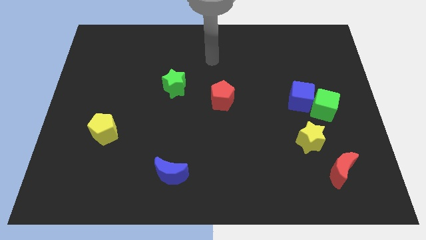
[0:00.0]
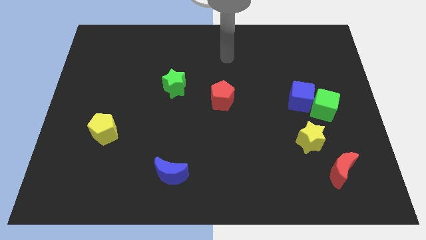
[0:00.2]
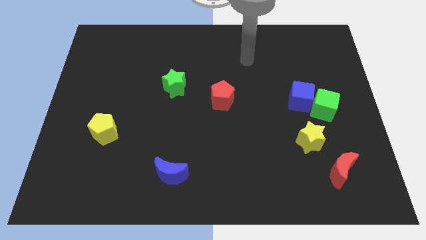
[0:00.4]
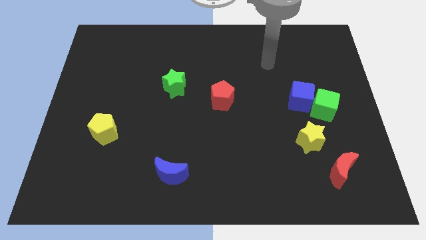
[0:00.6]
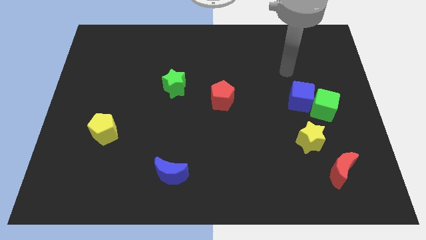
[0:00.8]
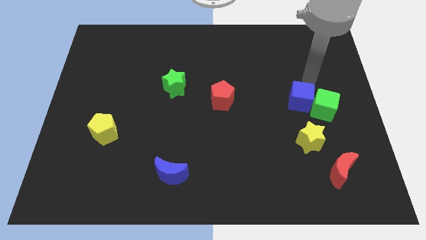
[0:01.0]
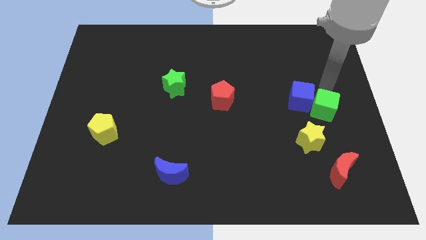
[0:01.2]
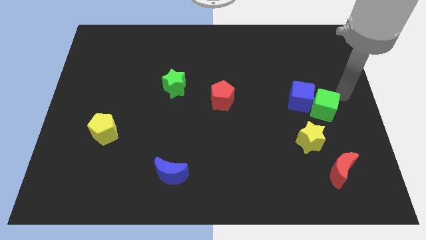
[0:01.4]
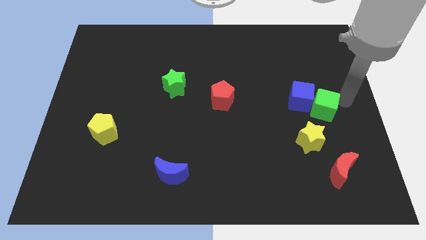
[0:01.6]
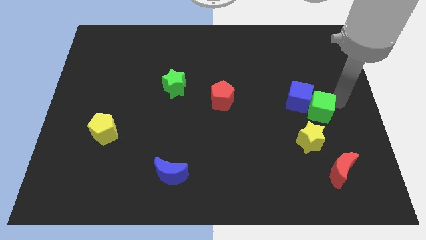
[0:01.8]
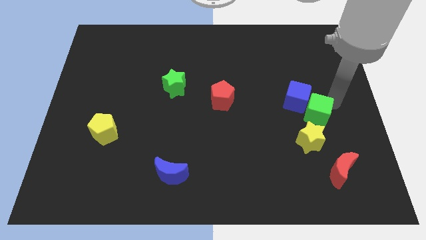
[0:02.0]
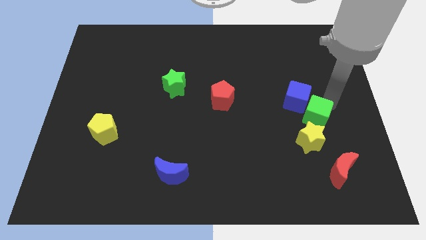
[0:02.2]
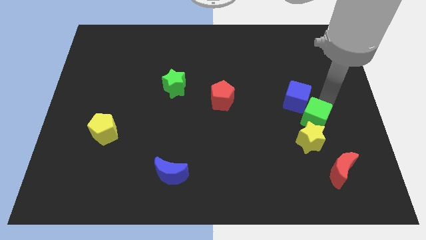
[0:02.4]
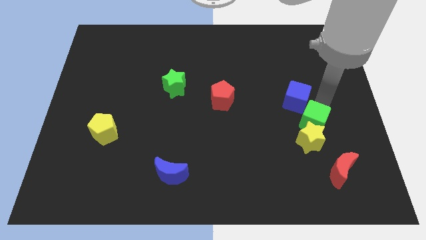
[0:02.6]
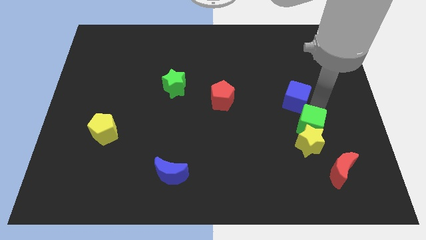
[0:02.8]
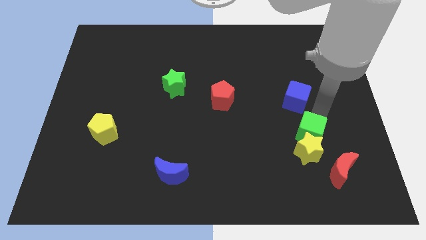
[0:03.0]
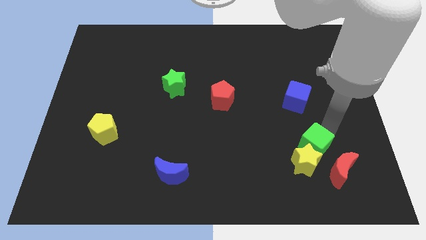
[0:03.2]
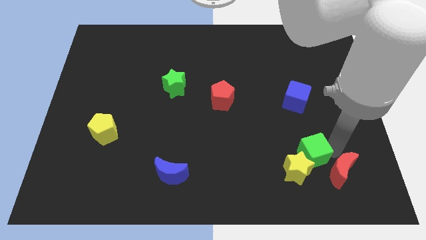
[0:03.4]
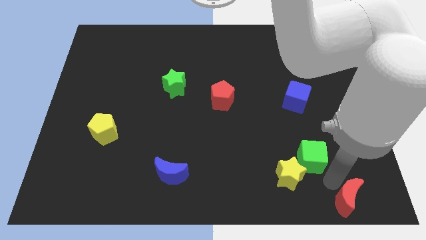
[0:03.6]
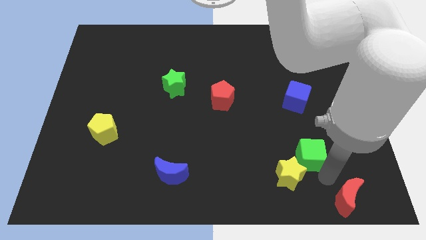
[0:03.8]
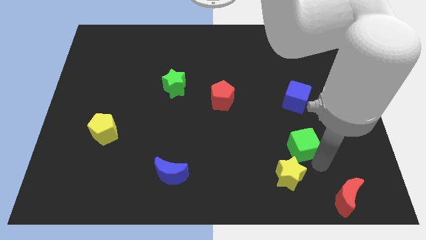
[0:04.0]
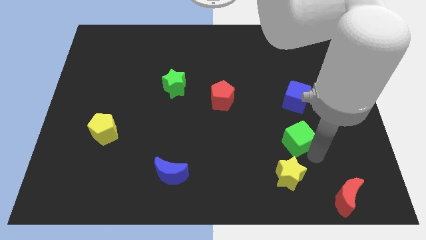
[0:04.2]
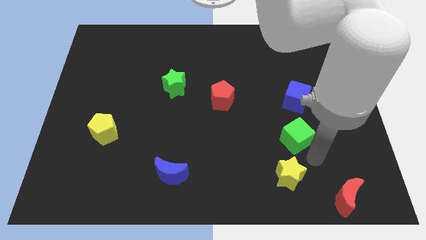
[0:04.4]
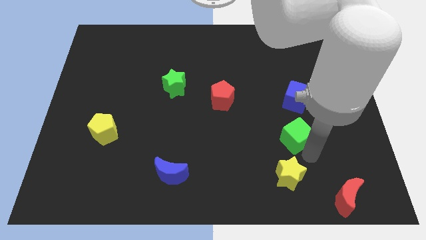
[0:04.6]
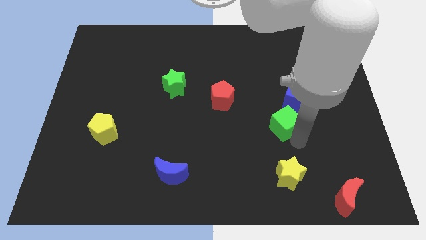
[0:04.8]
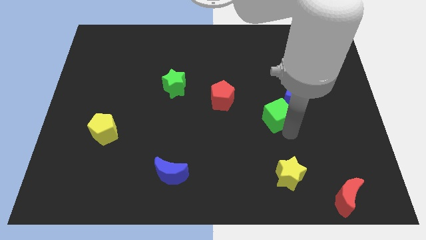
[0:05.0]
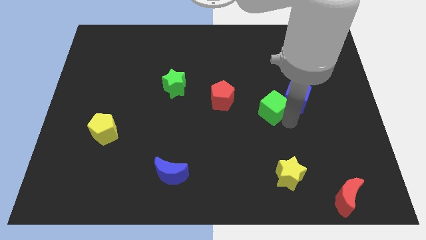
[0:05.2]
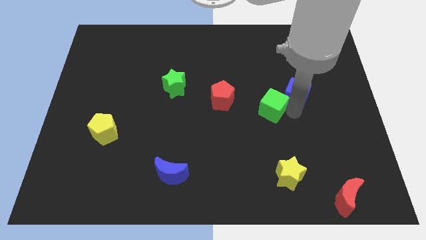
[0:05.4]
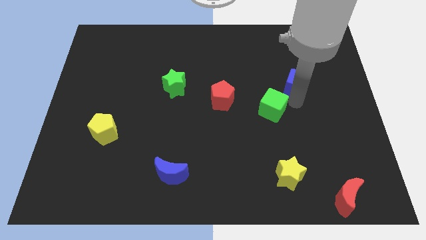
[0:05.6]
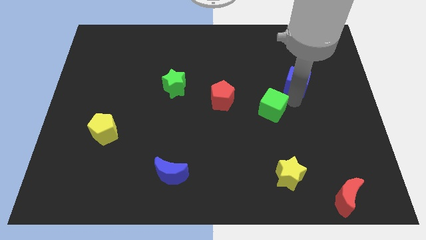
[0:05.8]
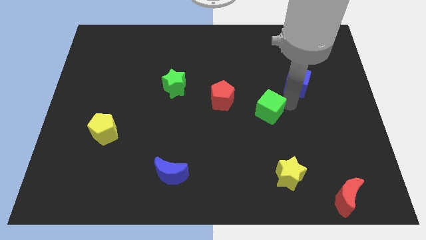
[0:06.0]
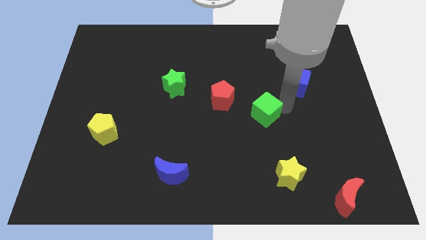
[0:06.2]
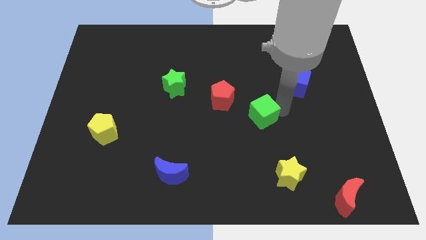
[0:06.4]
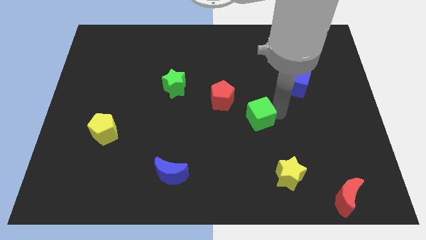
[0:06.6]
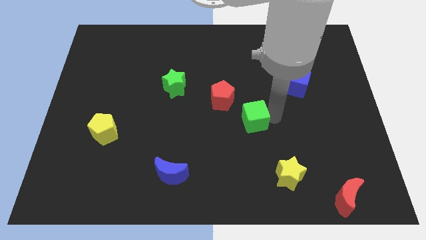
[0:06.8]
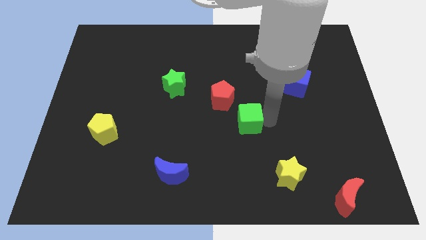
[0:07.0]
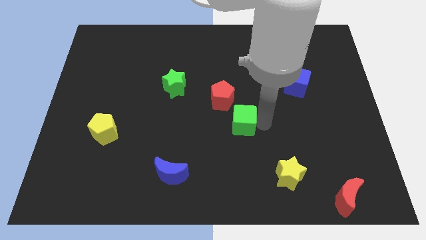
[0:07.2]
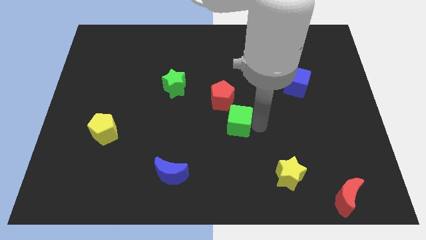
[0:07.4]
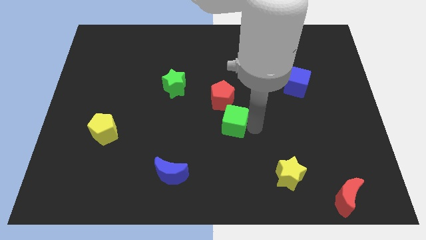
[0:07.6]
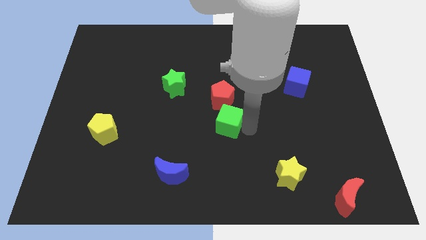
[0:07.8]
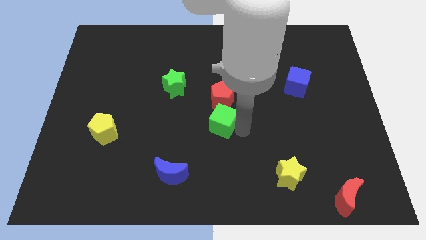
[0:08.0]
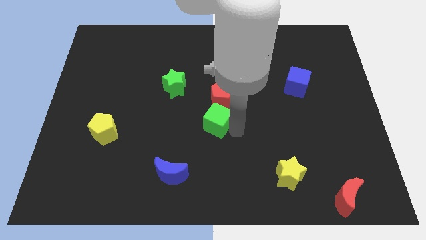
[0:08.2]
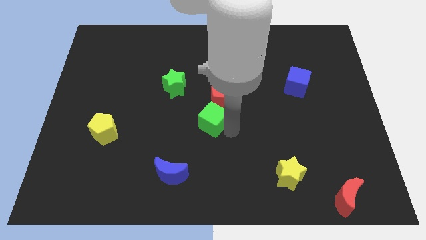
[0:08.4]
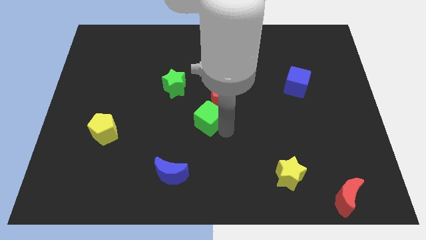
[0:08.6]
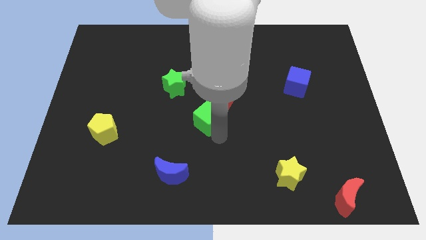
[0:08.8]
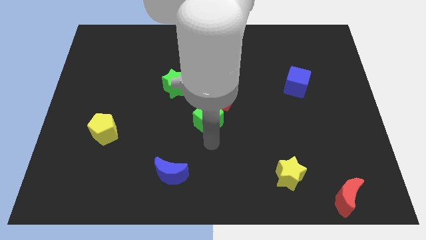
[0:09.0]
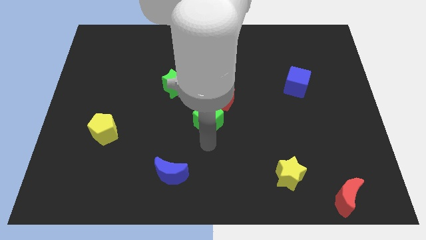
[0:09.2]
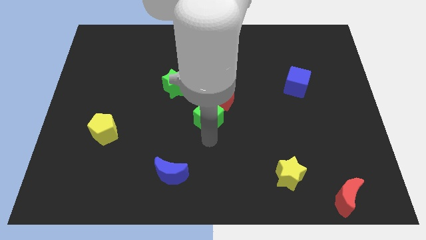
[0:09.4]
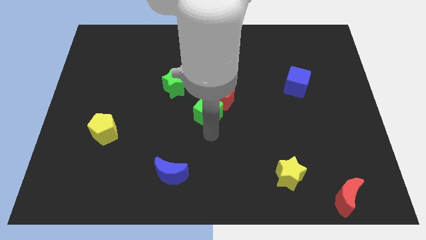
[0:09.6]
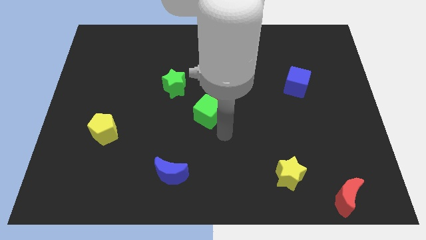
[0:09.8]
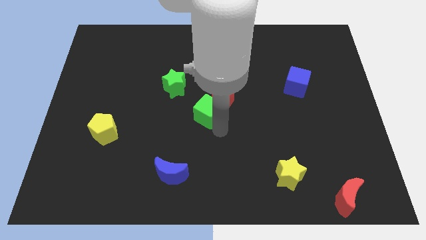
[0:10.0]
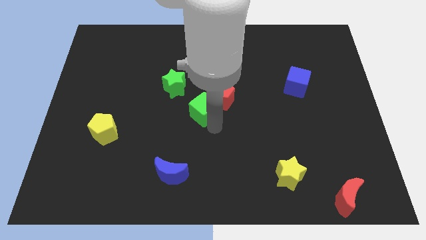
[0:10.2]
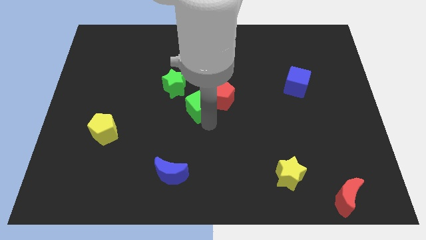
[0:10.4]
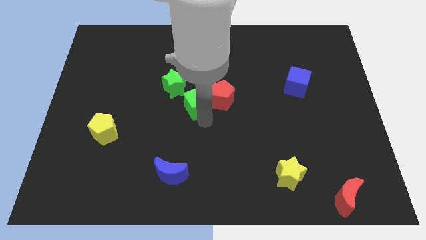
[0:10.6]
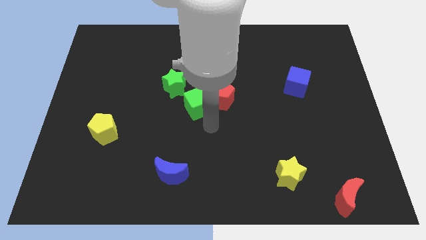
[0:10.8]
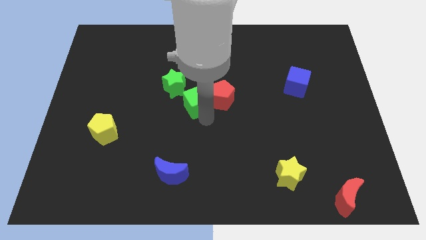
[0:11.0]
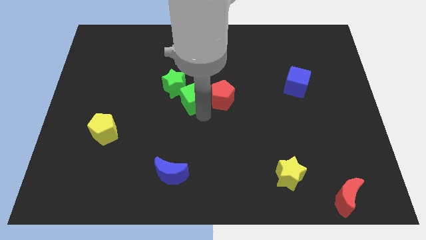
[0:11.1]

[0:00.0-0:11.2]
move the green cube close to the green star

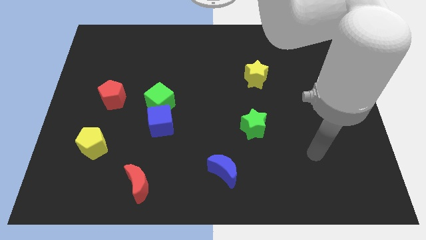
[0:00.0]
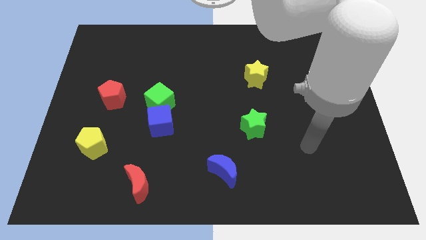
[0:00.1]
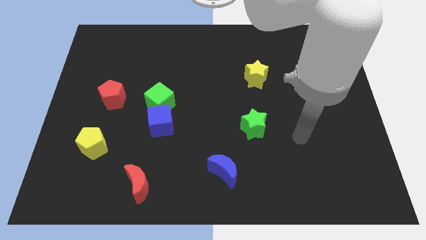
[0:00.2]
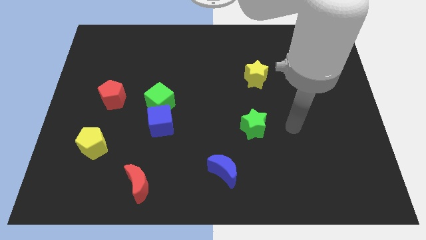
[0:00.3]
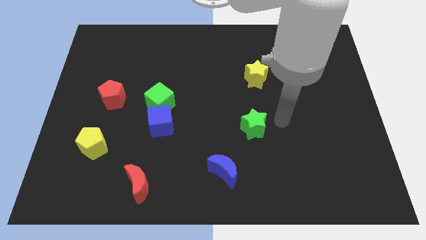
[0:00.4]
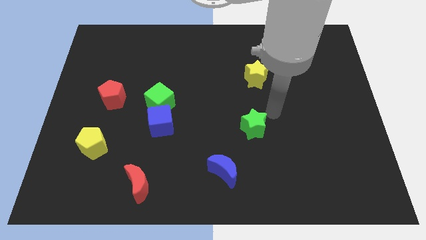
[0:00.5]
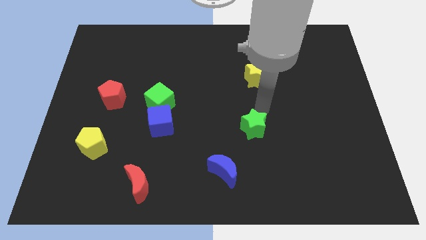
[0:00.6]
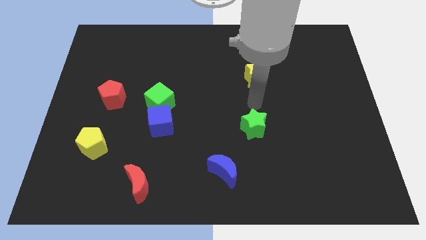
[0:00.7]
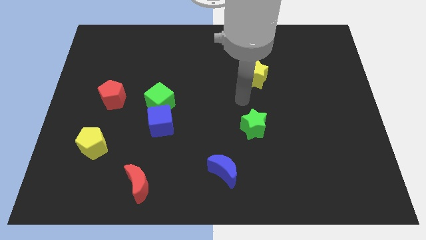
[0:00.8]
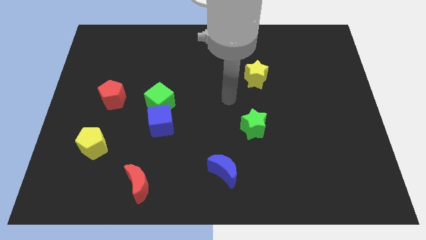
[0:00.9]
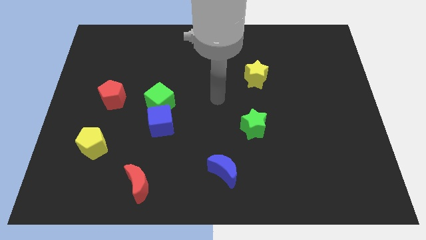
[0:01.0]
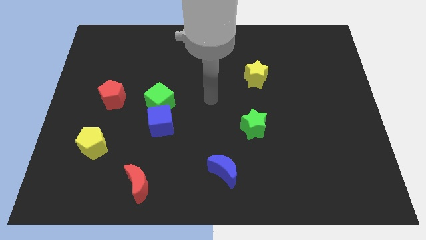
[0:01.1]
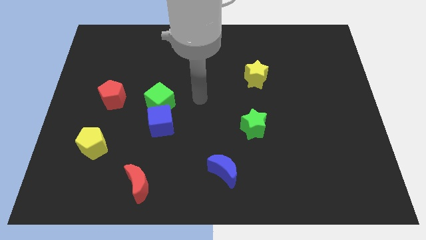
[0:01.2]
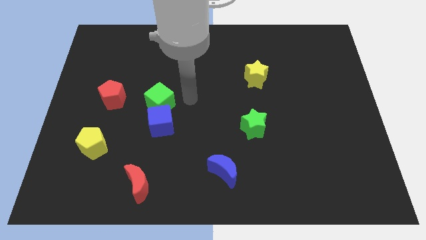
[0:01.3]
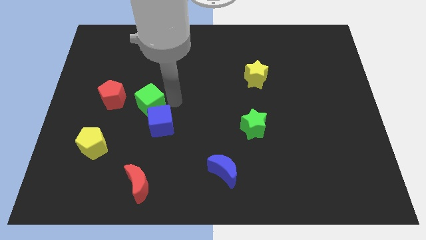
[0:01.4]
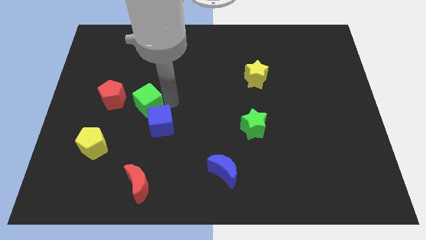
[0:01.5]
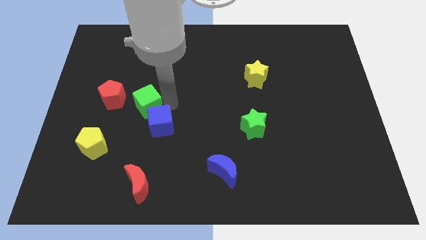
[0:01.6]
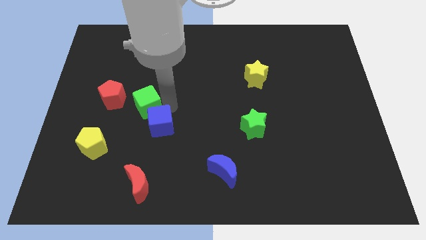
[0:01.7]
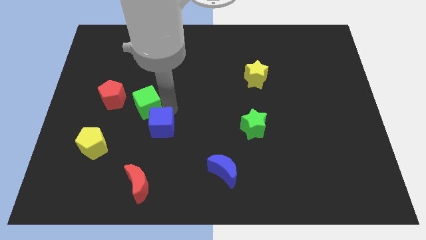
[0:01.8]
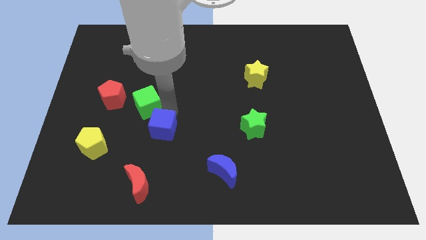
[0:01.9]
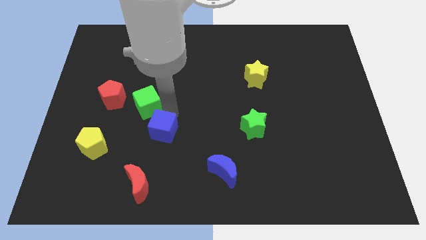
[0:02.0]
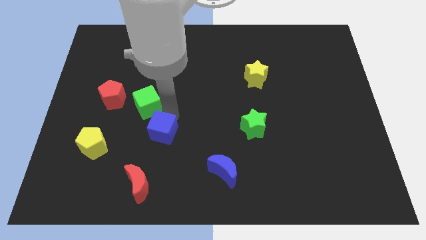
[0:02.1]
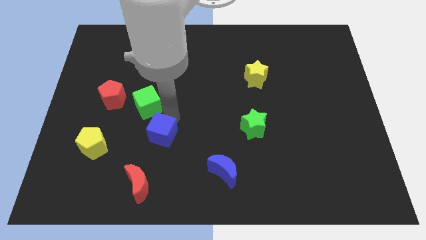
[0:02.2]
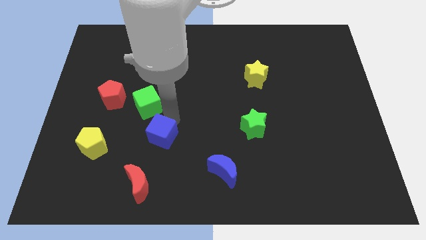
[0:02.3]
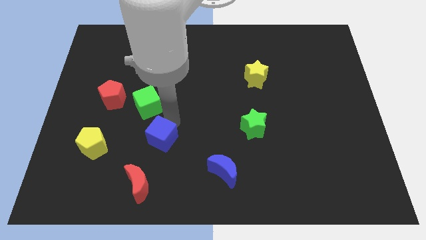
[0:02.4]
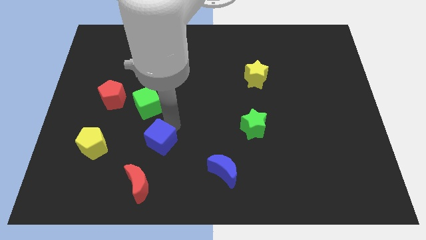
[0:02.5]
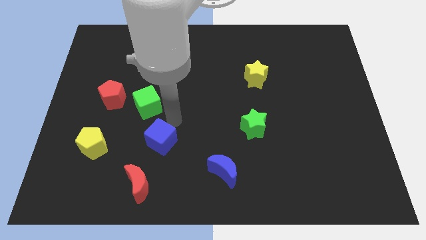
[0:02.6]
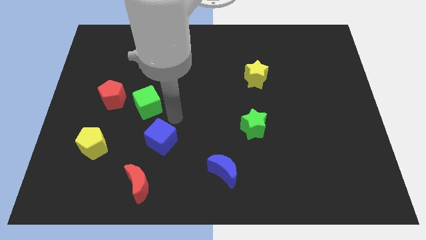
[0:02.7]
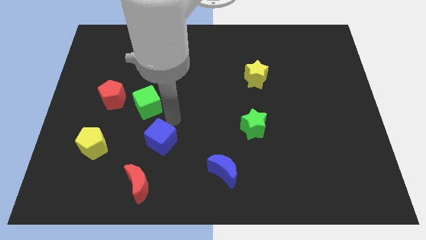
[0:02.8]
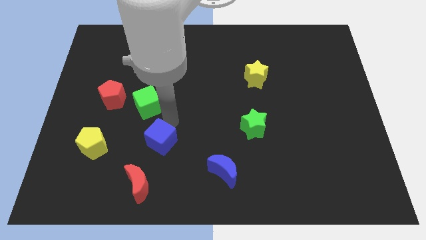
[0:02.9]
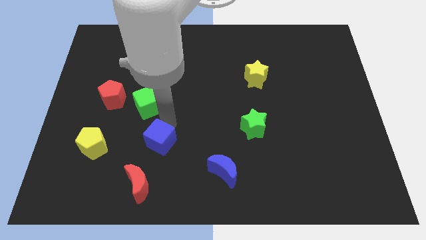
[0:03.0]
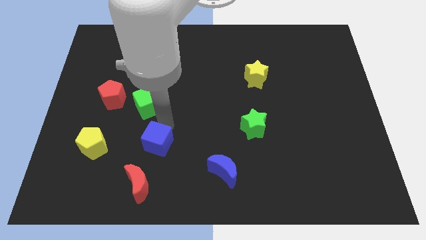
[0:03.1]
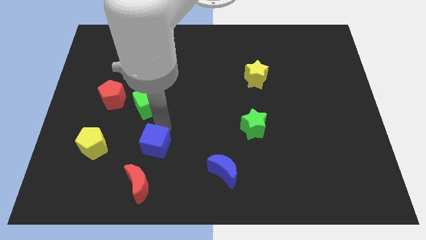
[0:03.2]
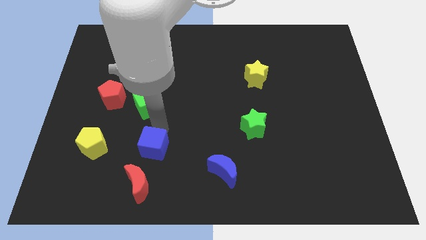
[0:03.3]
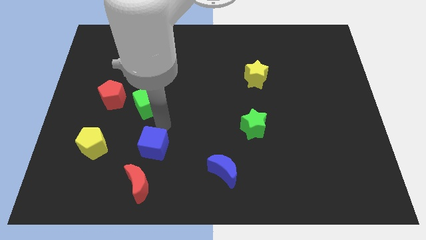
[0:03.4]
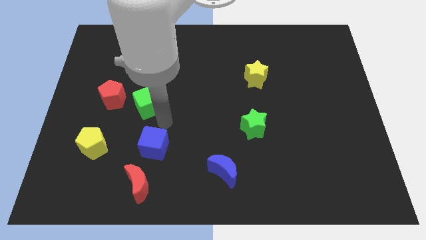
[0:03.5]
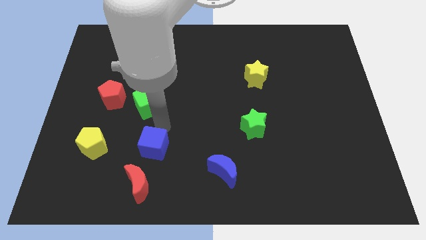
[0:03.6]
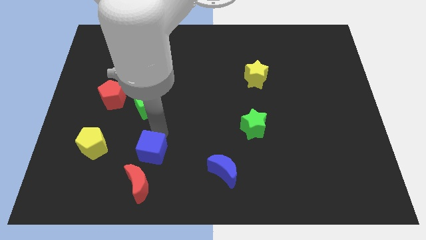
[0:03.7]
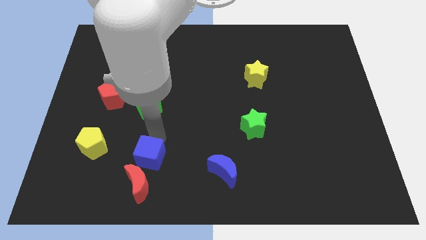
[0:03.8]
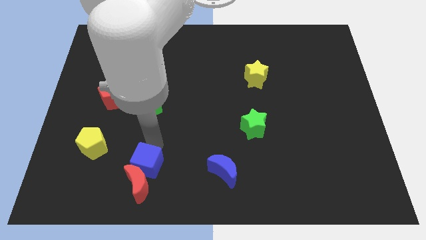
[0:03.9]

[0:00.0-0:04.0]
push the blue cube to the red moon
